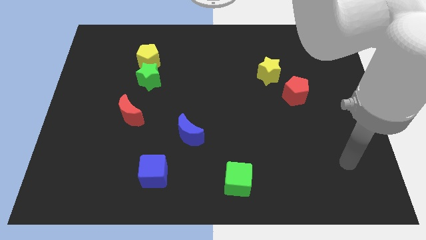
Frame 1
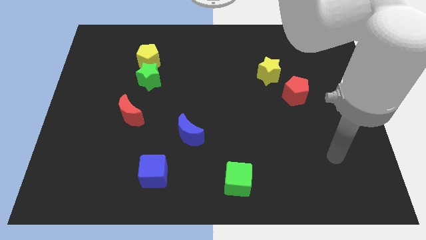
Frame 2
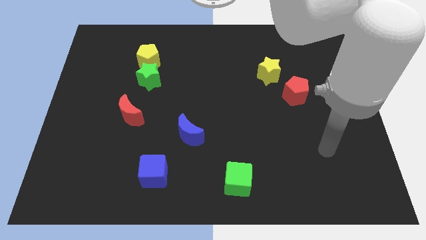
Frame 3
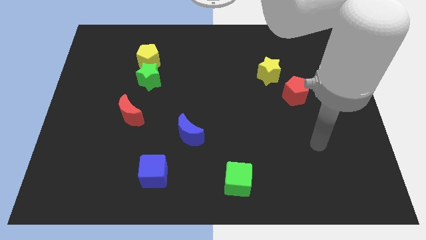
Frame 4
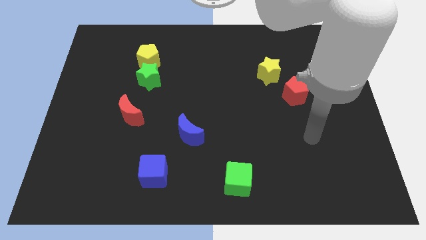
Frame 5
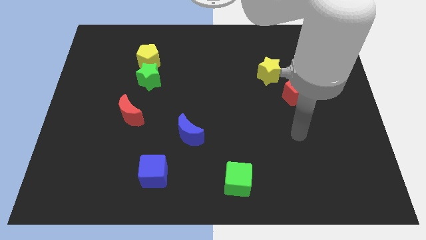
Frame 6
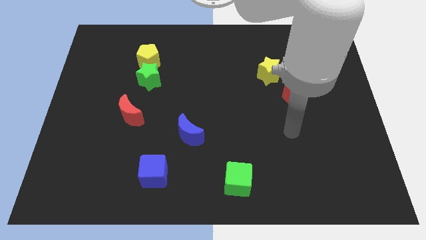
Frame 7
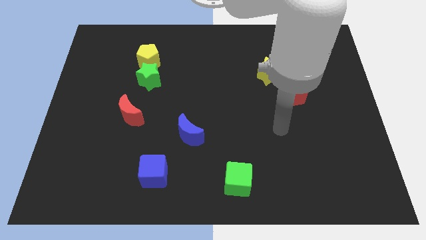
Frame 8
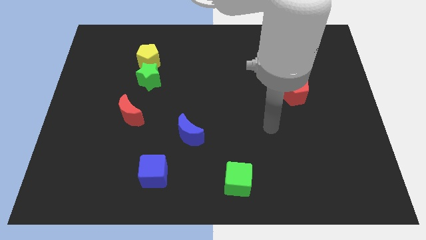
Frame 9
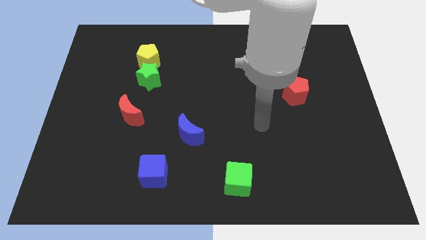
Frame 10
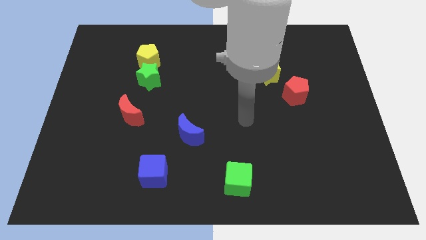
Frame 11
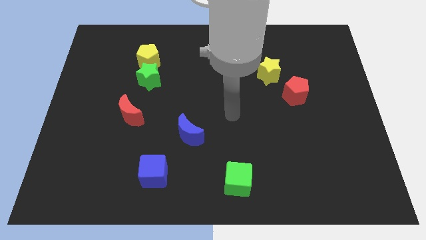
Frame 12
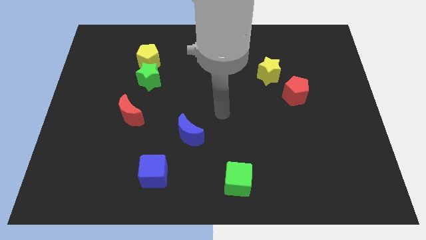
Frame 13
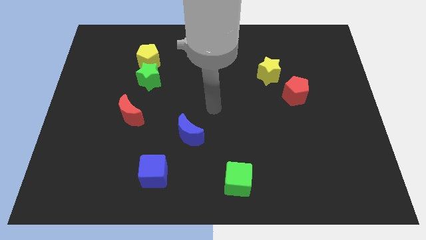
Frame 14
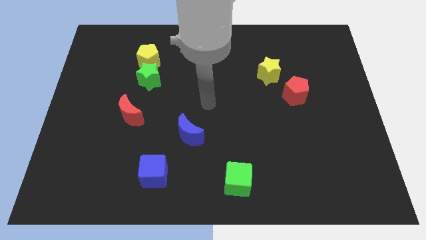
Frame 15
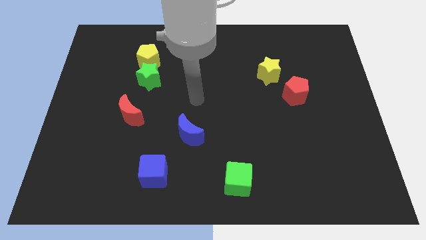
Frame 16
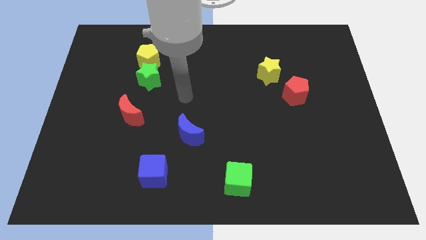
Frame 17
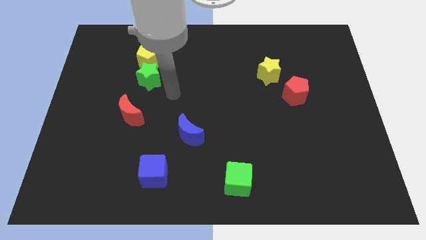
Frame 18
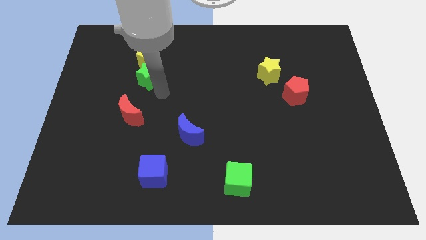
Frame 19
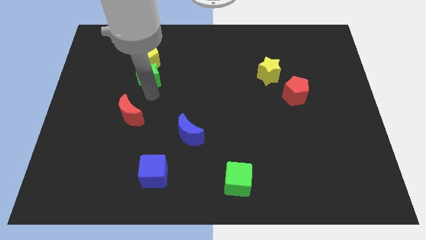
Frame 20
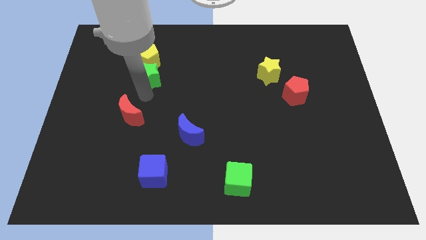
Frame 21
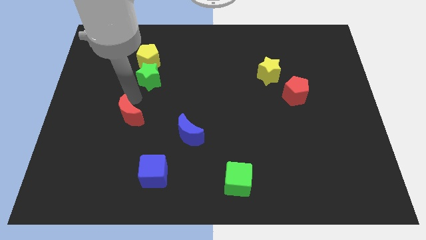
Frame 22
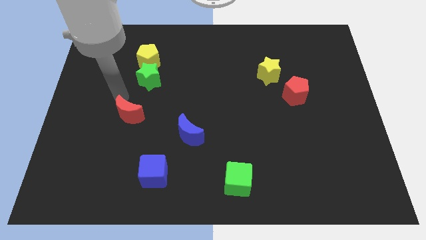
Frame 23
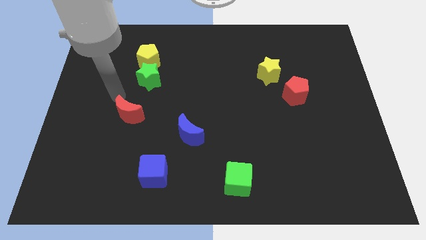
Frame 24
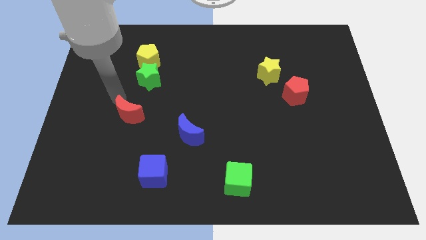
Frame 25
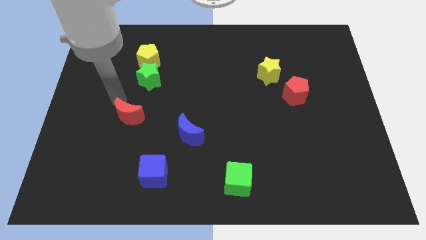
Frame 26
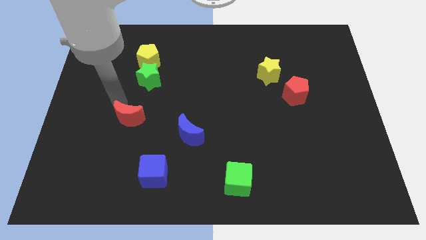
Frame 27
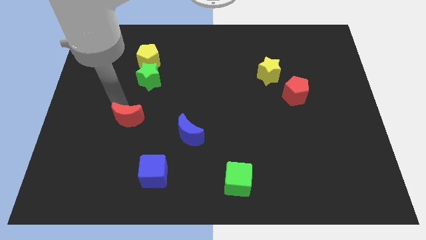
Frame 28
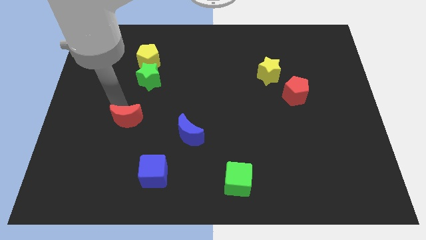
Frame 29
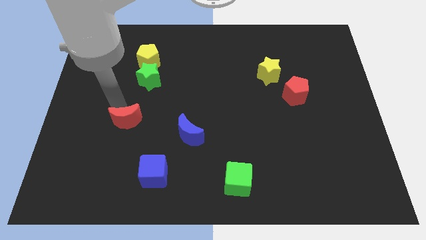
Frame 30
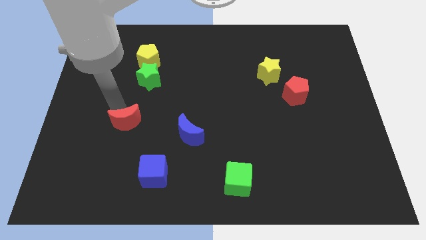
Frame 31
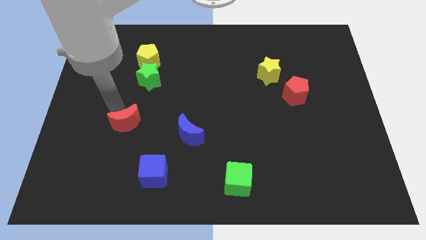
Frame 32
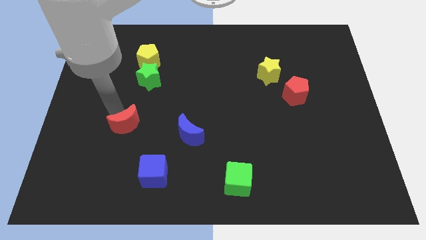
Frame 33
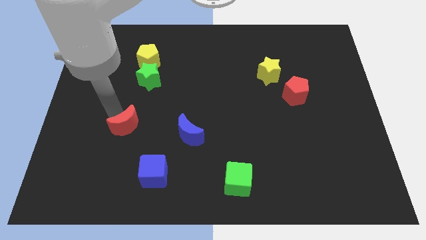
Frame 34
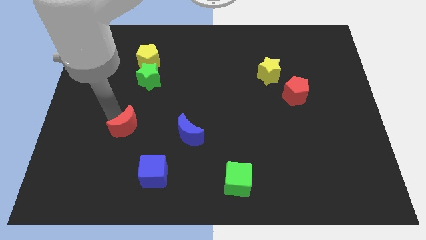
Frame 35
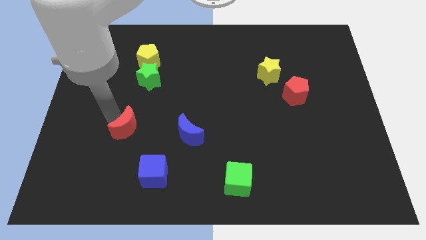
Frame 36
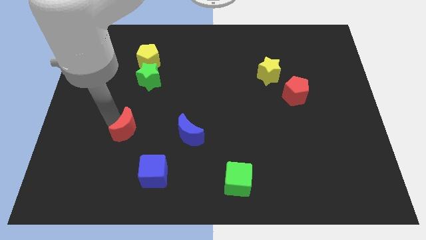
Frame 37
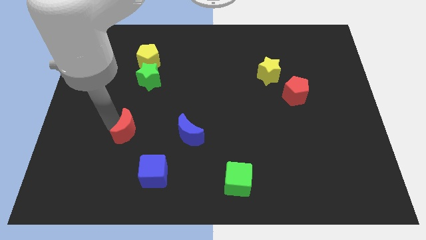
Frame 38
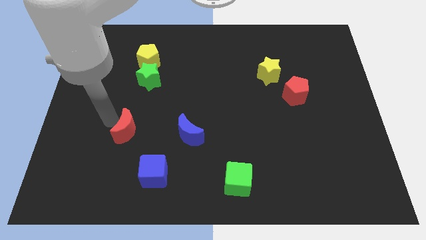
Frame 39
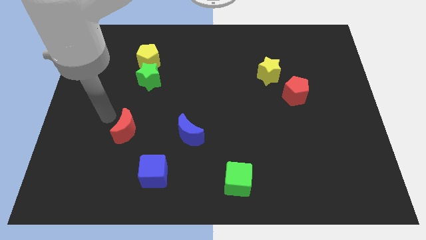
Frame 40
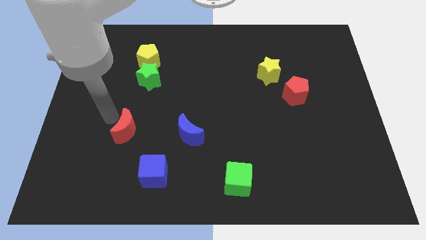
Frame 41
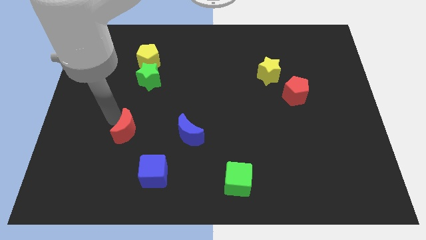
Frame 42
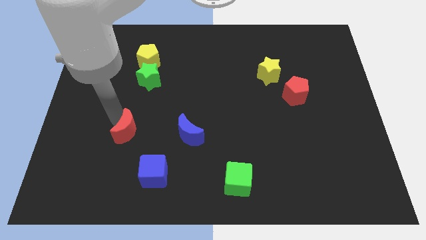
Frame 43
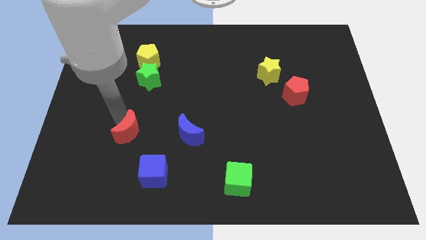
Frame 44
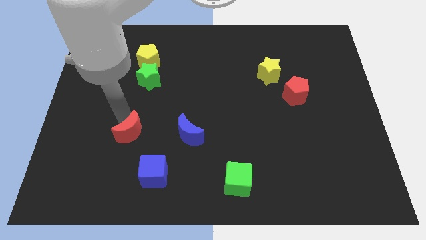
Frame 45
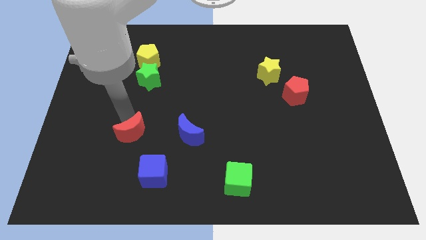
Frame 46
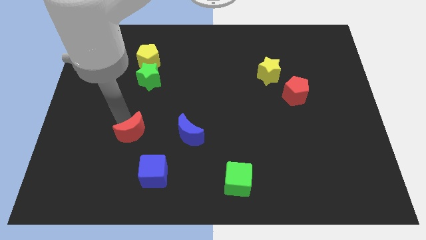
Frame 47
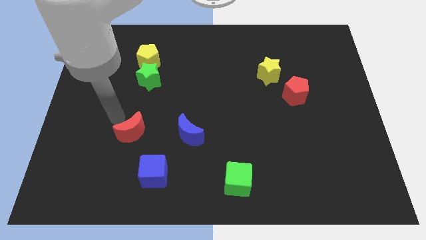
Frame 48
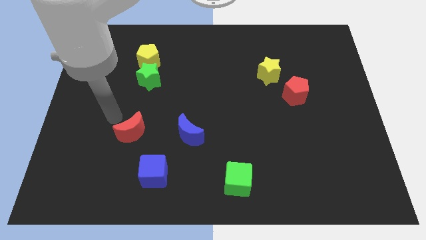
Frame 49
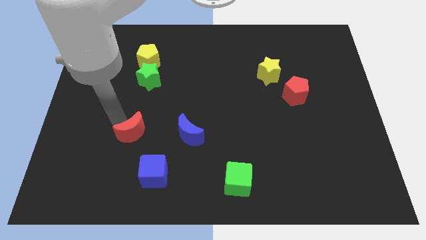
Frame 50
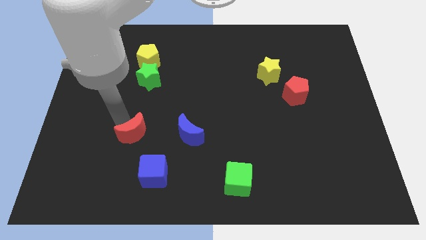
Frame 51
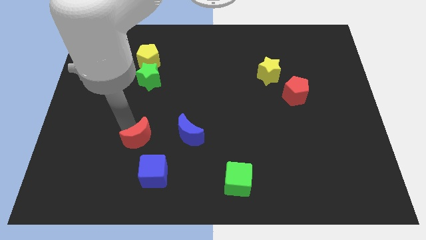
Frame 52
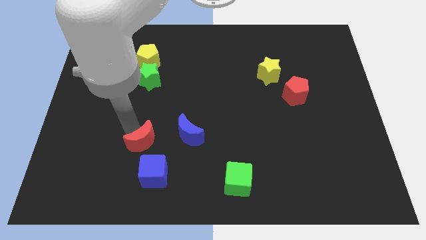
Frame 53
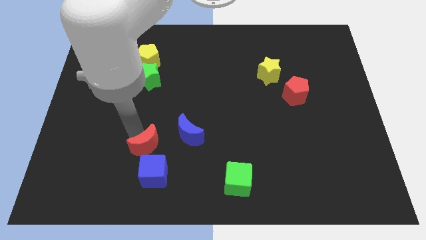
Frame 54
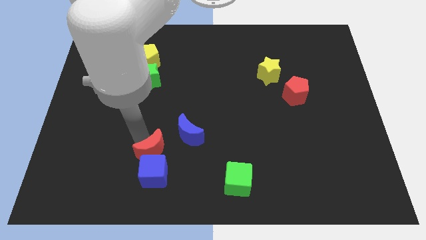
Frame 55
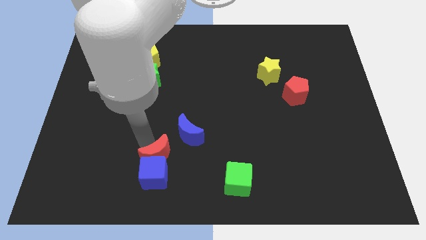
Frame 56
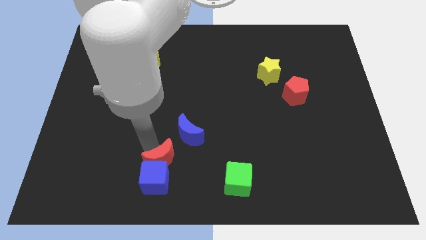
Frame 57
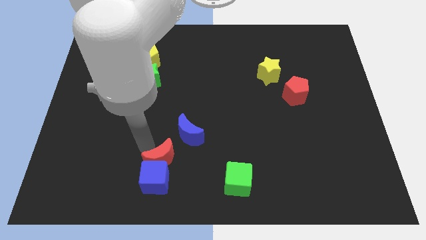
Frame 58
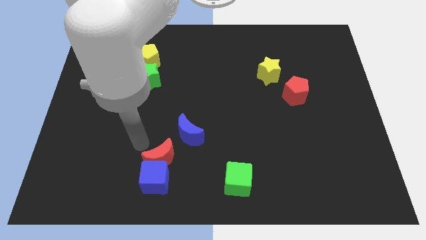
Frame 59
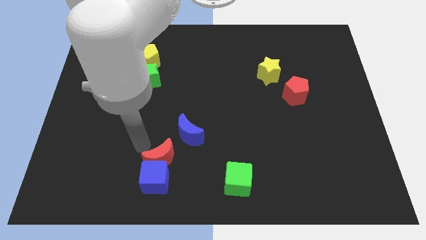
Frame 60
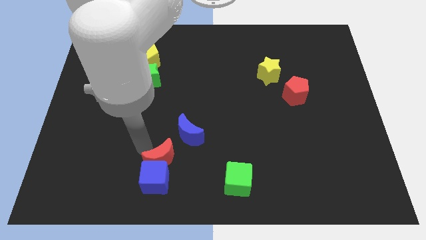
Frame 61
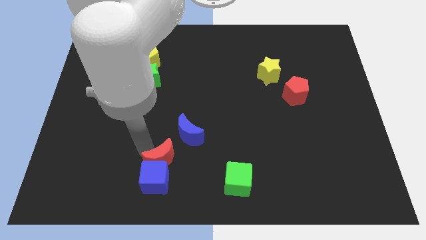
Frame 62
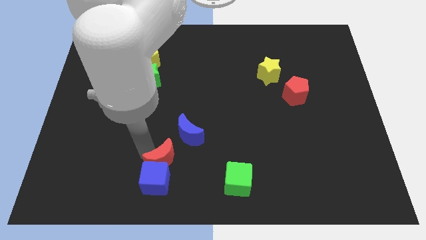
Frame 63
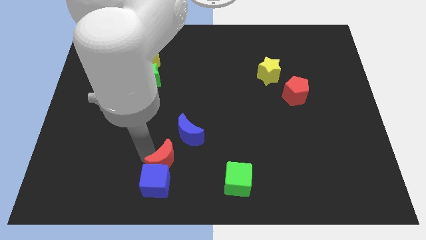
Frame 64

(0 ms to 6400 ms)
push the red moon to the bottom side of the blue moon

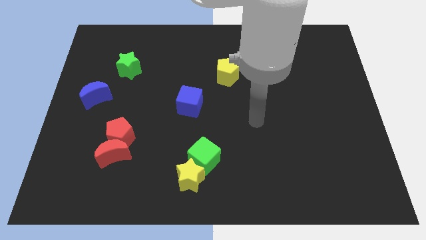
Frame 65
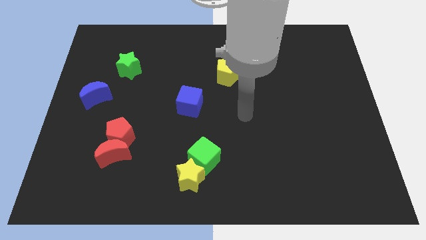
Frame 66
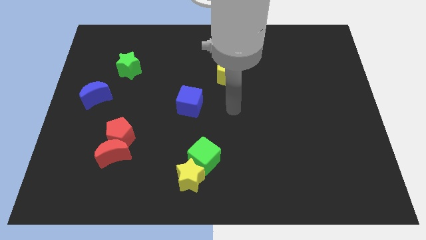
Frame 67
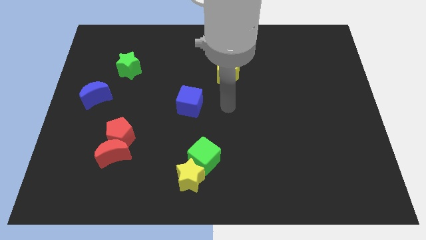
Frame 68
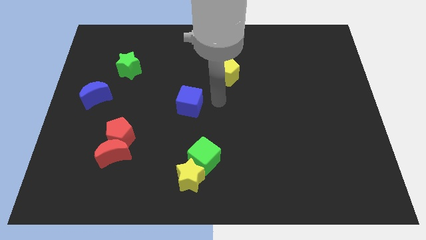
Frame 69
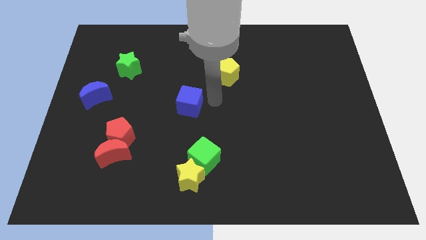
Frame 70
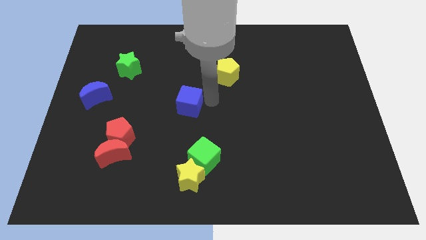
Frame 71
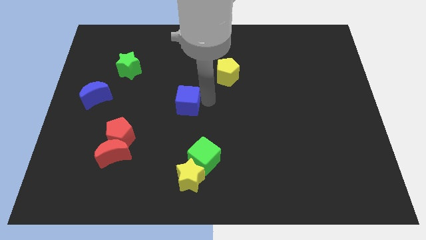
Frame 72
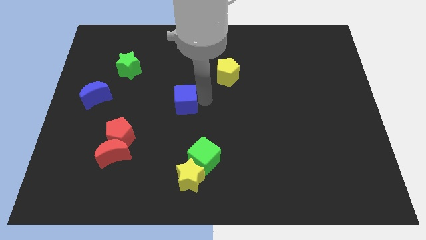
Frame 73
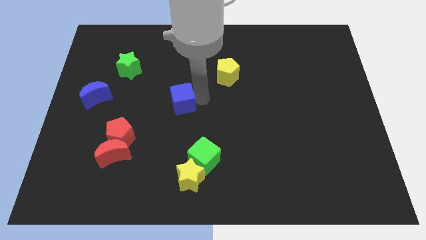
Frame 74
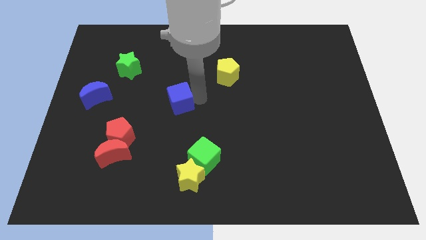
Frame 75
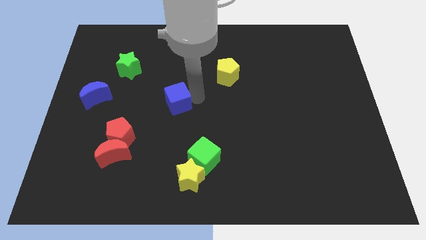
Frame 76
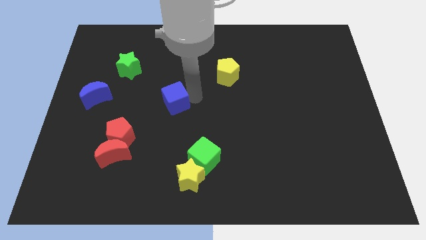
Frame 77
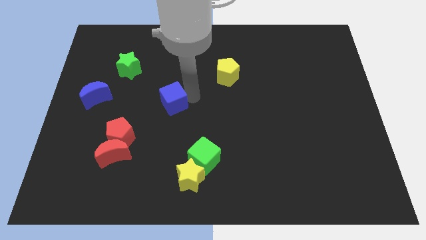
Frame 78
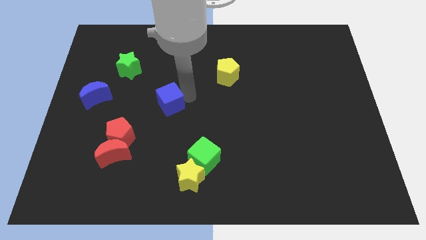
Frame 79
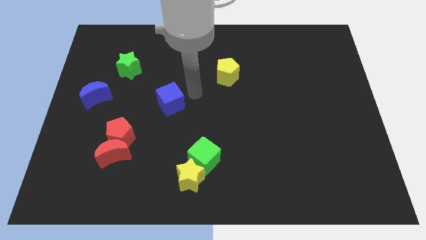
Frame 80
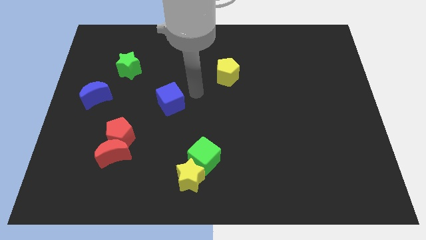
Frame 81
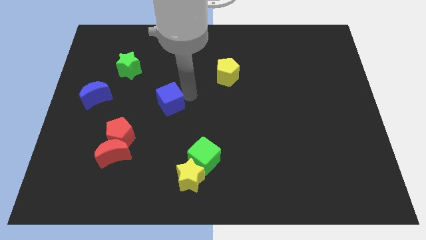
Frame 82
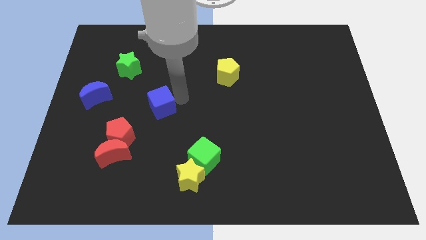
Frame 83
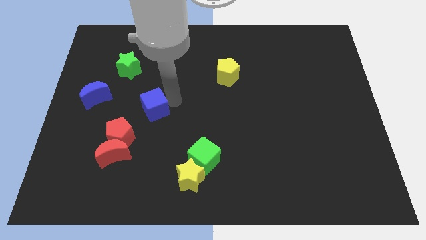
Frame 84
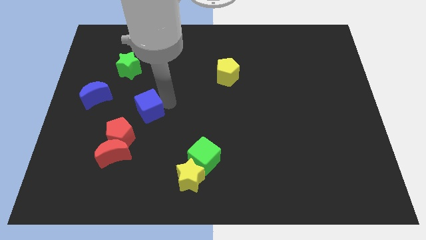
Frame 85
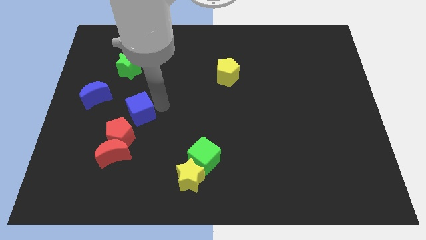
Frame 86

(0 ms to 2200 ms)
put the blue cube above the red moon
